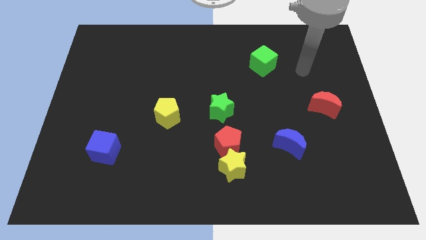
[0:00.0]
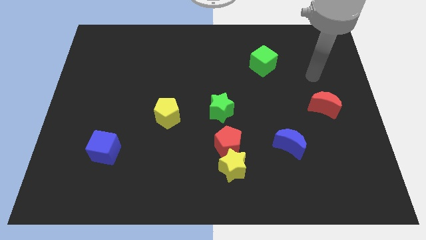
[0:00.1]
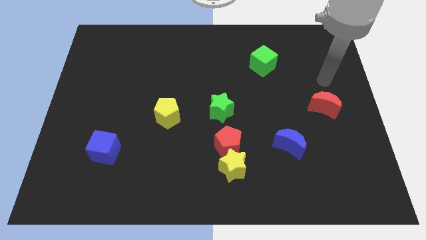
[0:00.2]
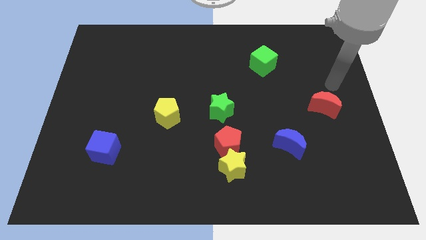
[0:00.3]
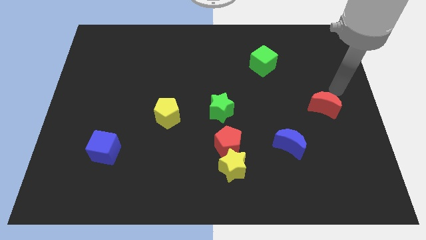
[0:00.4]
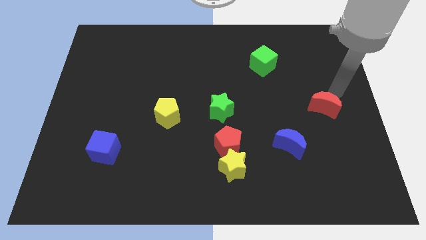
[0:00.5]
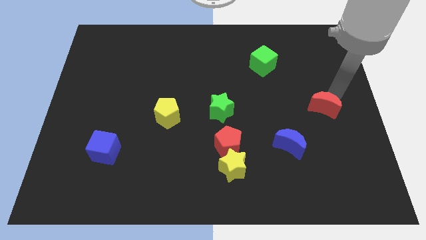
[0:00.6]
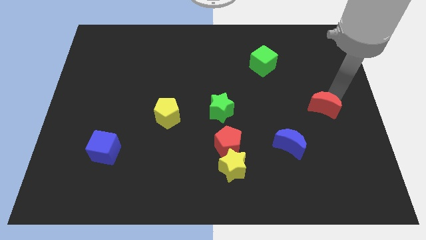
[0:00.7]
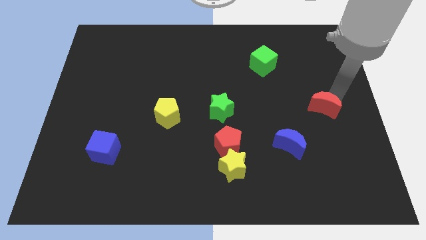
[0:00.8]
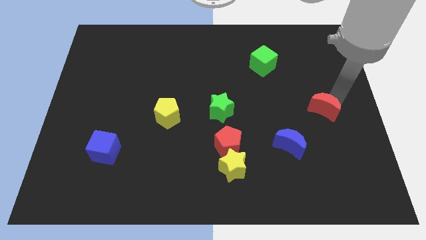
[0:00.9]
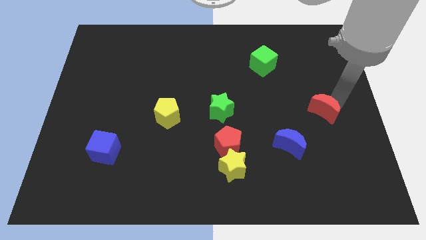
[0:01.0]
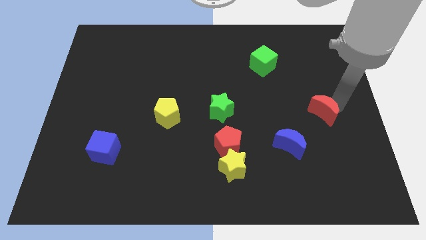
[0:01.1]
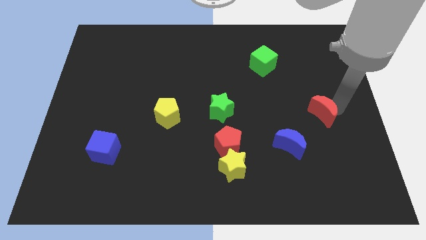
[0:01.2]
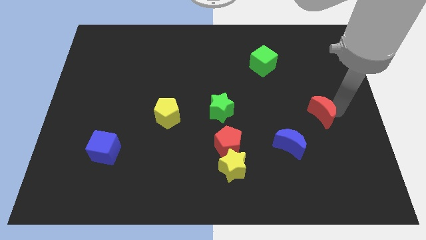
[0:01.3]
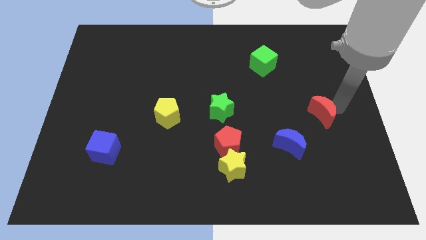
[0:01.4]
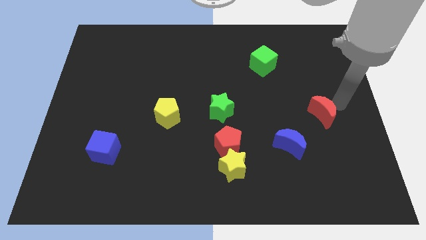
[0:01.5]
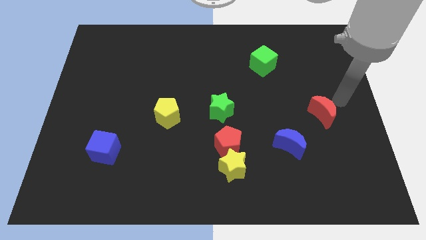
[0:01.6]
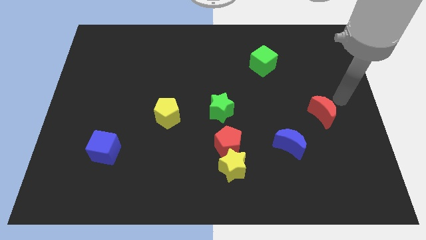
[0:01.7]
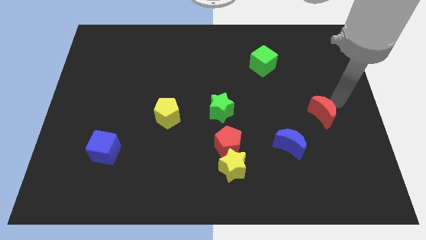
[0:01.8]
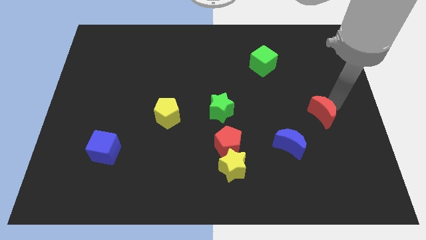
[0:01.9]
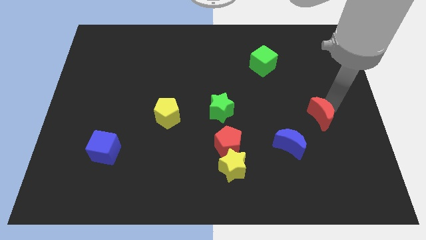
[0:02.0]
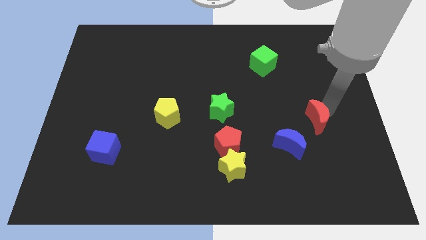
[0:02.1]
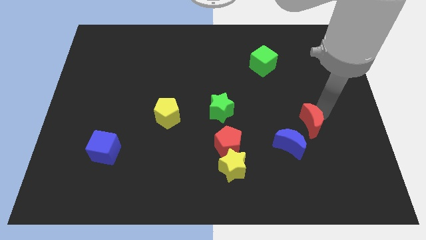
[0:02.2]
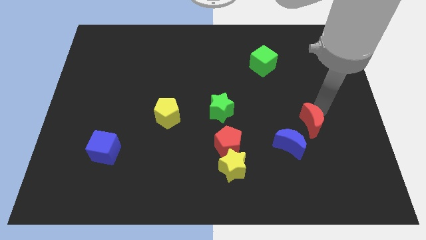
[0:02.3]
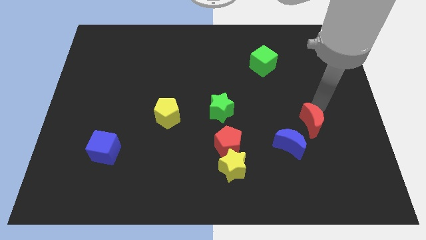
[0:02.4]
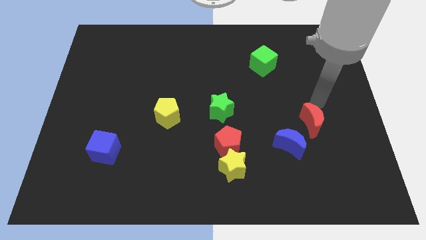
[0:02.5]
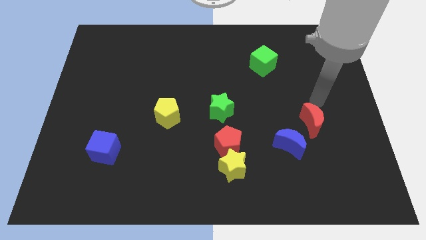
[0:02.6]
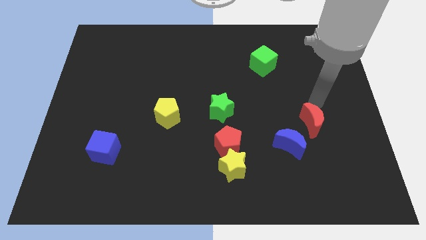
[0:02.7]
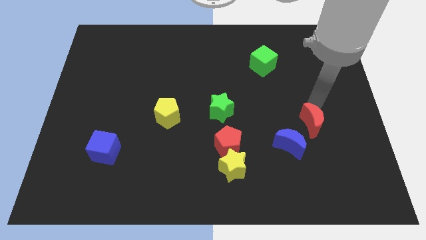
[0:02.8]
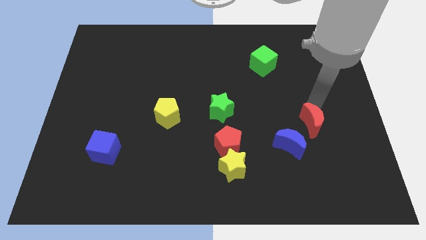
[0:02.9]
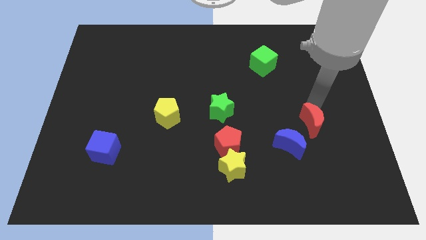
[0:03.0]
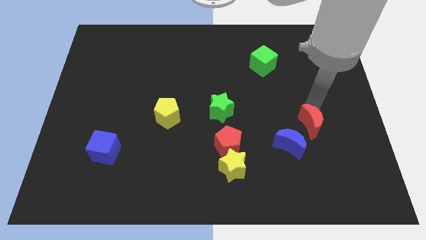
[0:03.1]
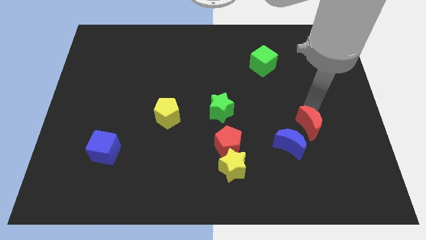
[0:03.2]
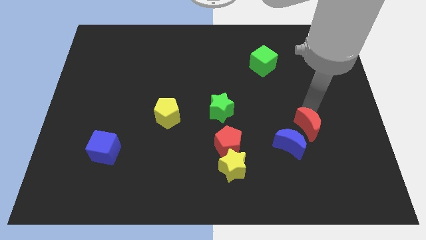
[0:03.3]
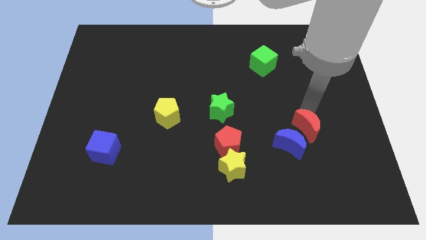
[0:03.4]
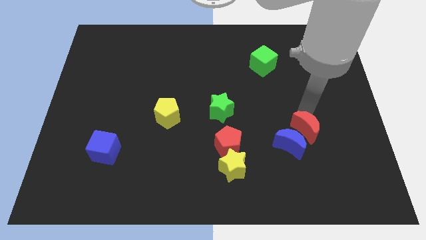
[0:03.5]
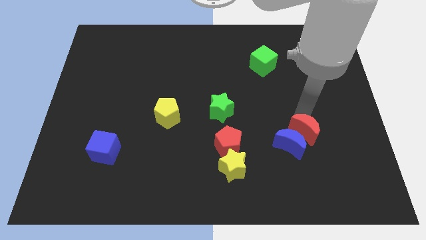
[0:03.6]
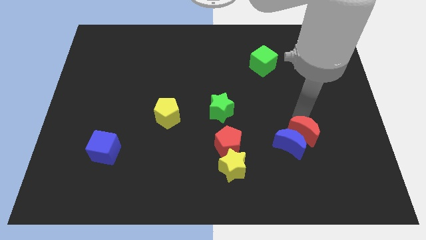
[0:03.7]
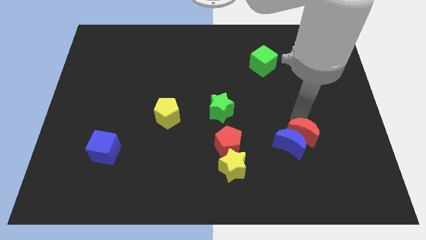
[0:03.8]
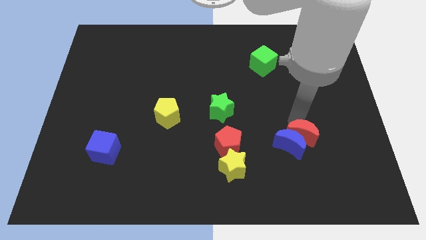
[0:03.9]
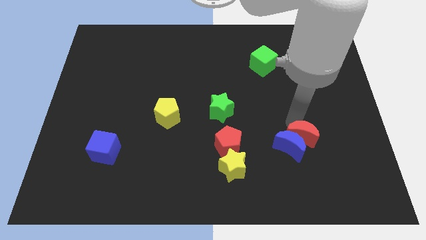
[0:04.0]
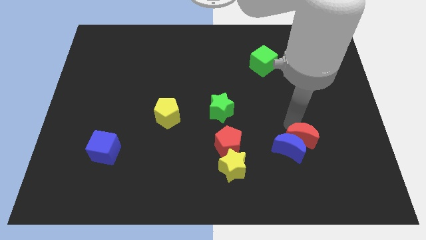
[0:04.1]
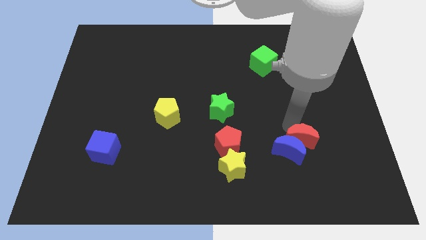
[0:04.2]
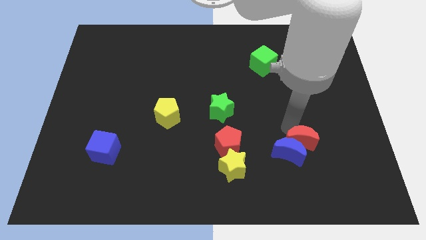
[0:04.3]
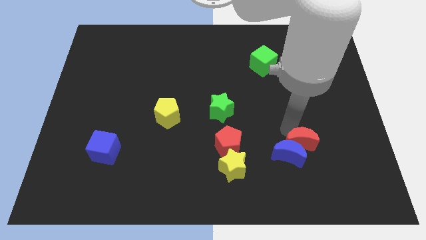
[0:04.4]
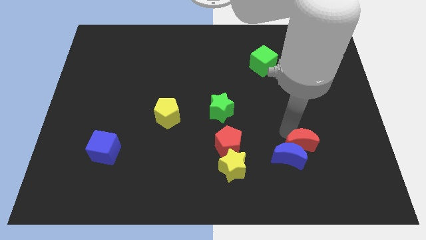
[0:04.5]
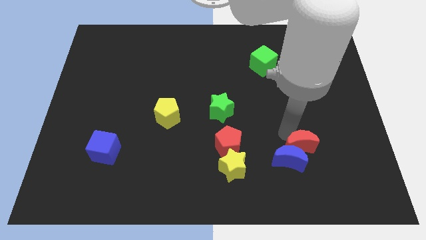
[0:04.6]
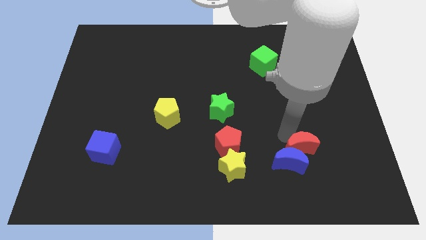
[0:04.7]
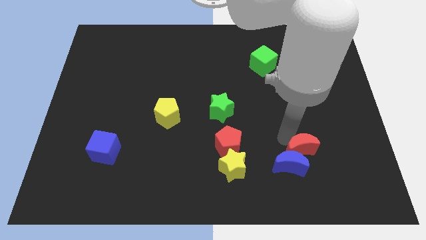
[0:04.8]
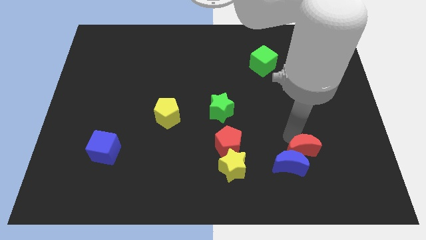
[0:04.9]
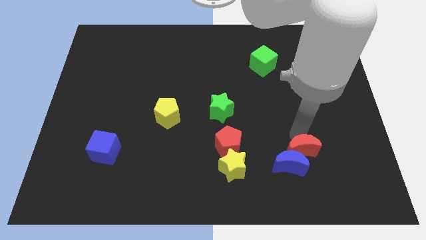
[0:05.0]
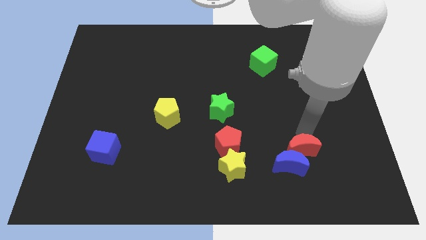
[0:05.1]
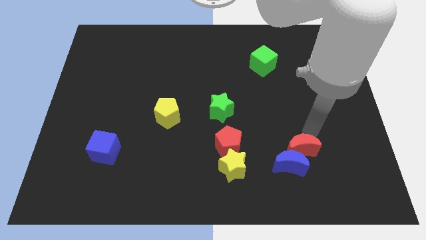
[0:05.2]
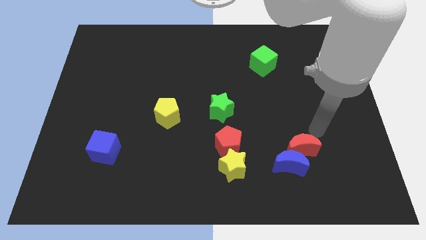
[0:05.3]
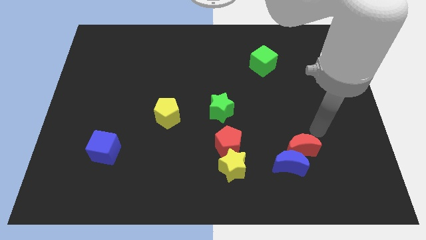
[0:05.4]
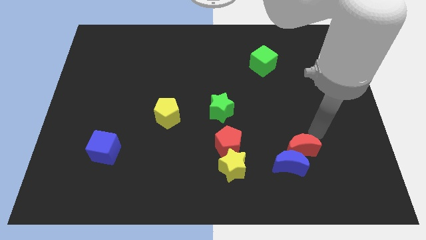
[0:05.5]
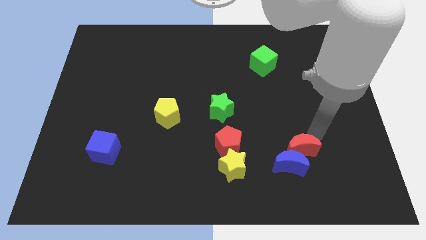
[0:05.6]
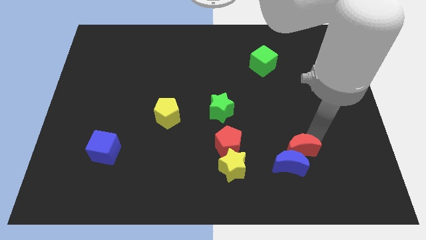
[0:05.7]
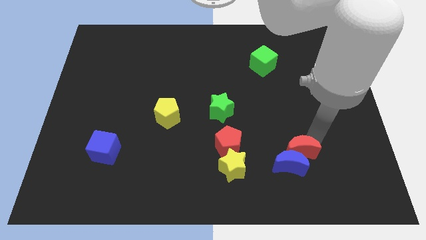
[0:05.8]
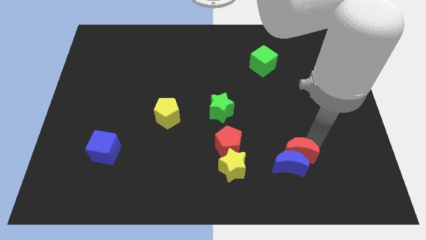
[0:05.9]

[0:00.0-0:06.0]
push the red moon just right of the yellow star

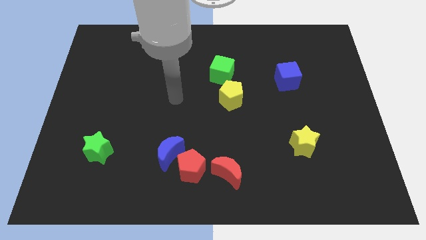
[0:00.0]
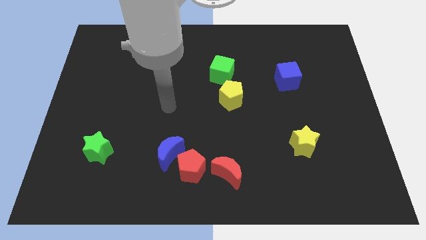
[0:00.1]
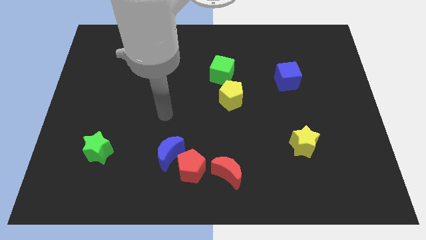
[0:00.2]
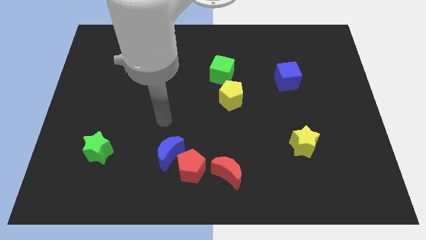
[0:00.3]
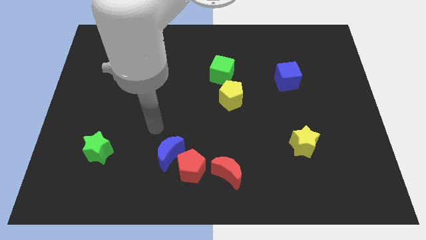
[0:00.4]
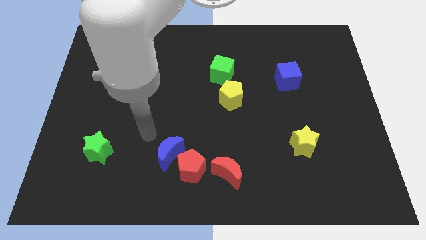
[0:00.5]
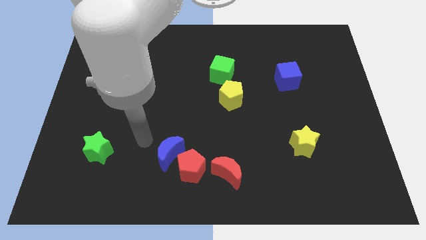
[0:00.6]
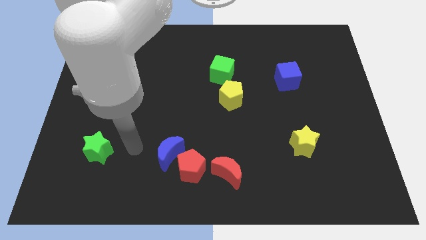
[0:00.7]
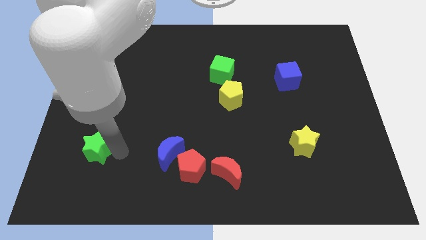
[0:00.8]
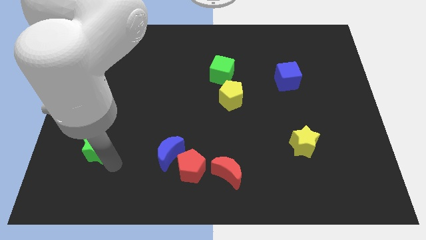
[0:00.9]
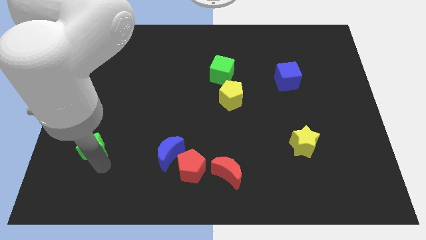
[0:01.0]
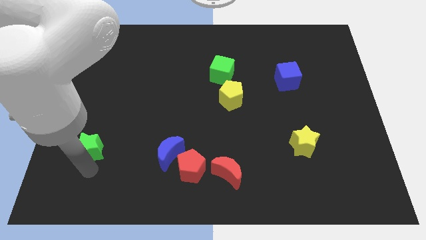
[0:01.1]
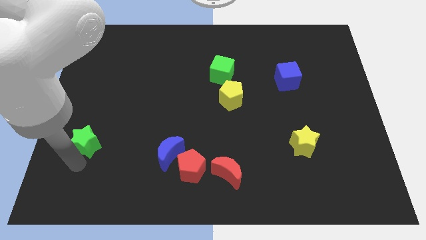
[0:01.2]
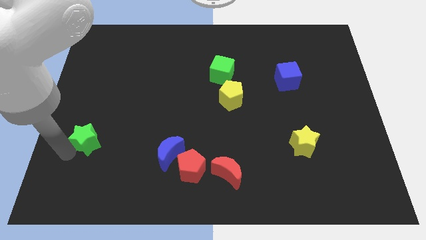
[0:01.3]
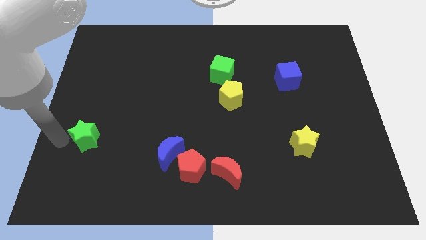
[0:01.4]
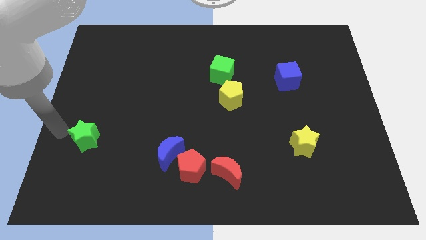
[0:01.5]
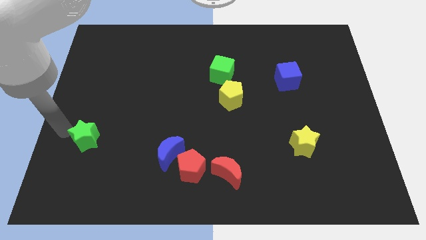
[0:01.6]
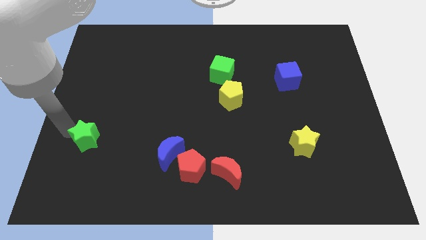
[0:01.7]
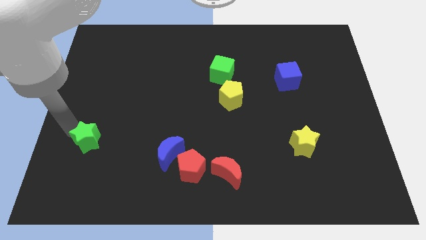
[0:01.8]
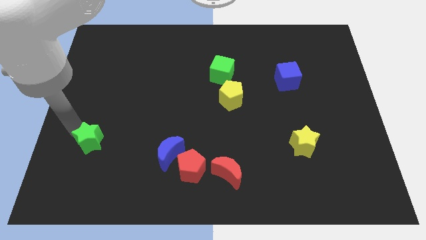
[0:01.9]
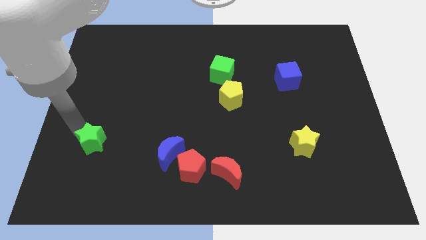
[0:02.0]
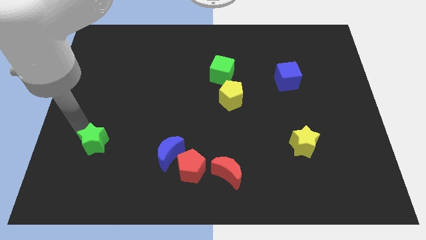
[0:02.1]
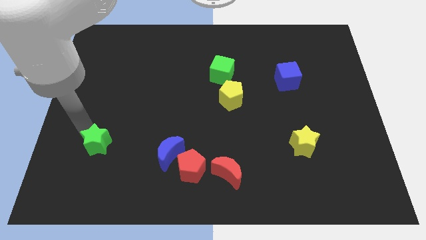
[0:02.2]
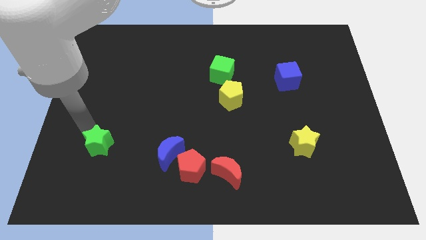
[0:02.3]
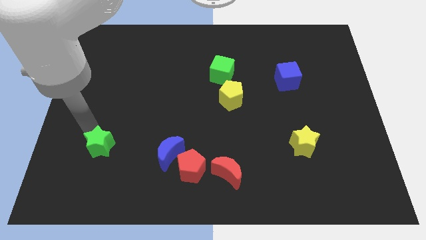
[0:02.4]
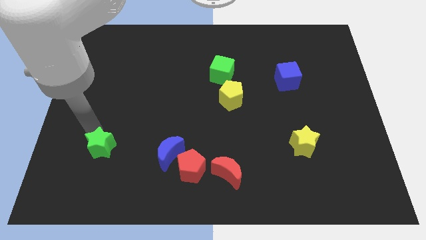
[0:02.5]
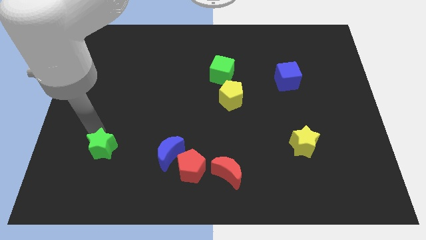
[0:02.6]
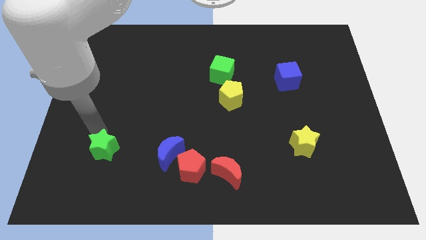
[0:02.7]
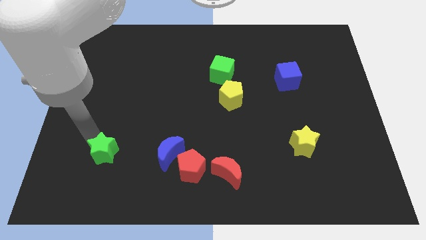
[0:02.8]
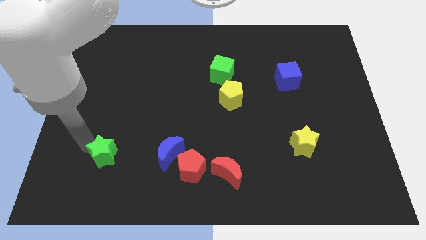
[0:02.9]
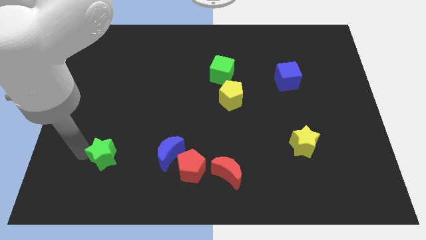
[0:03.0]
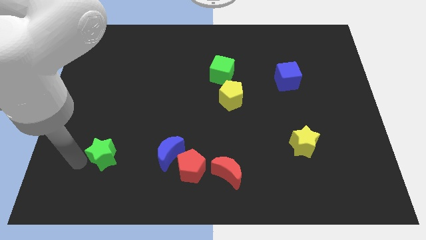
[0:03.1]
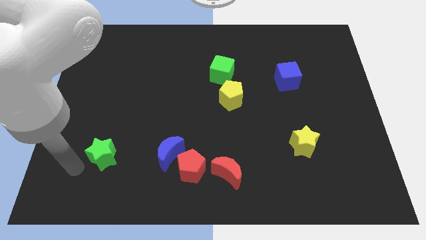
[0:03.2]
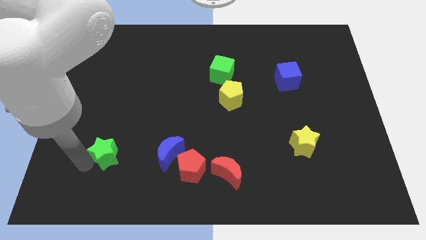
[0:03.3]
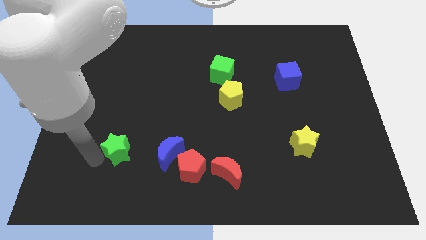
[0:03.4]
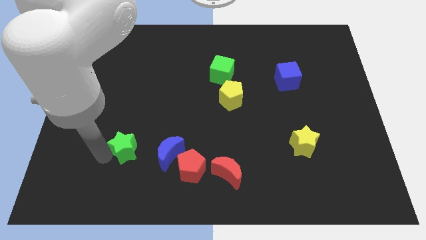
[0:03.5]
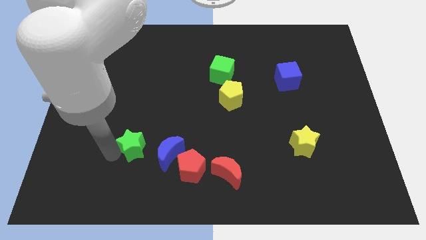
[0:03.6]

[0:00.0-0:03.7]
slide the green star diagonally up and to the left of the blue moon
